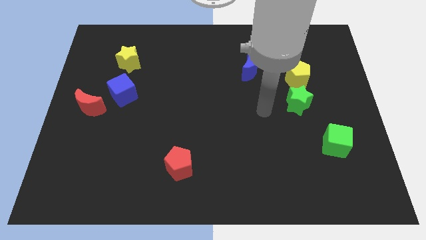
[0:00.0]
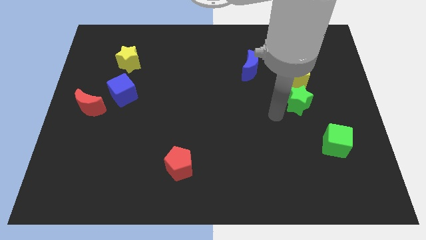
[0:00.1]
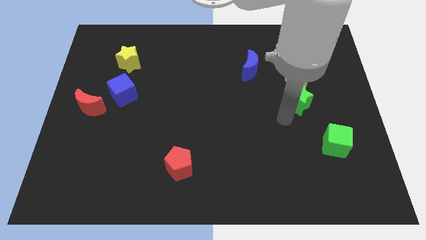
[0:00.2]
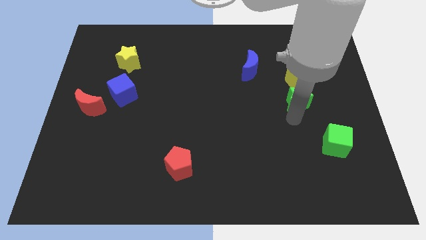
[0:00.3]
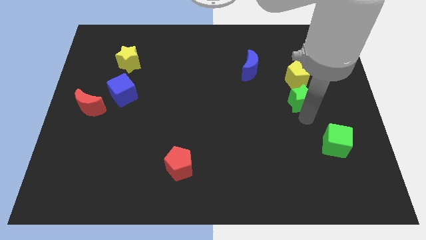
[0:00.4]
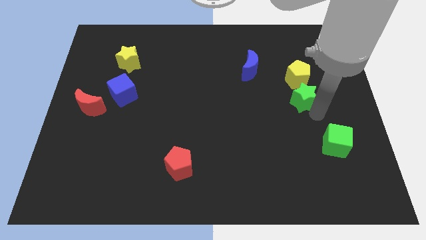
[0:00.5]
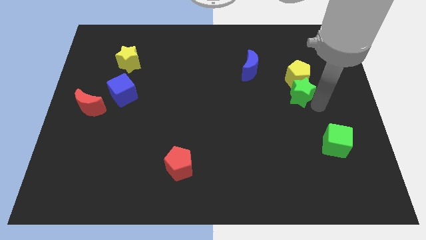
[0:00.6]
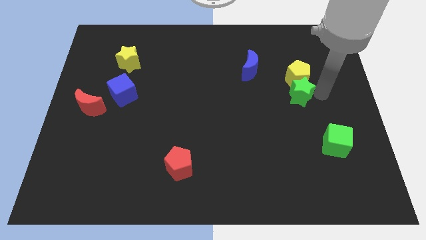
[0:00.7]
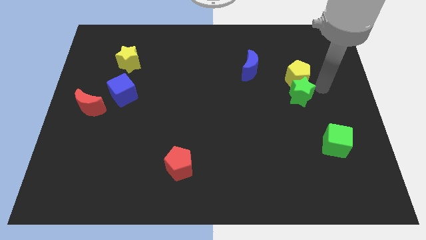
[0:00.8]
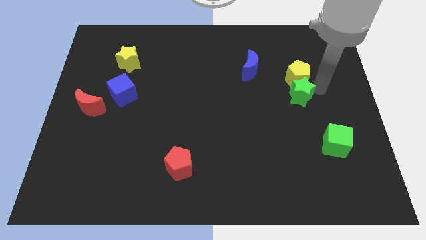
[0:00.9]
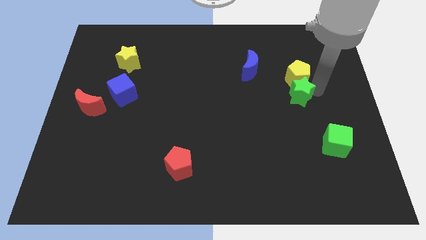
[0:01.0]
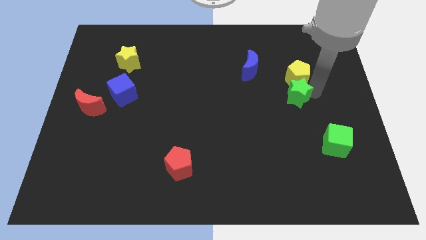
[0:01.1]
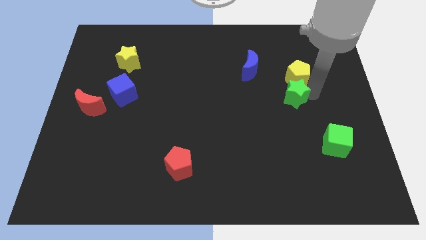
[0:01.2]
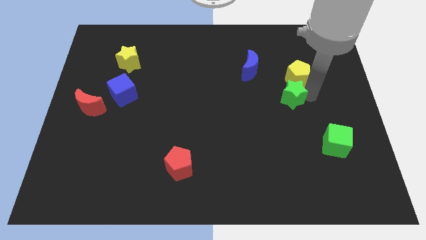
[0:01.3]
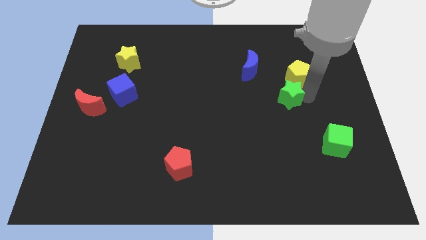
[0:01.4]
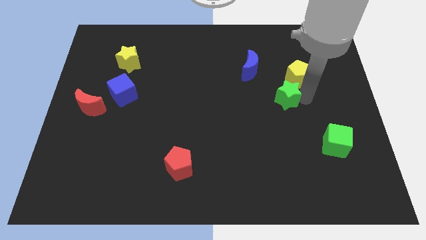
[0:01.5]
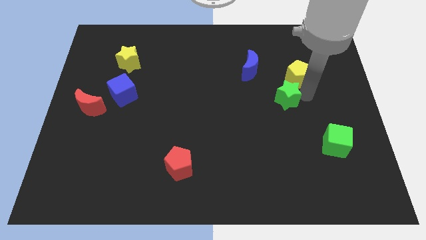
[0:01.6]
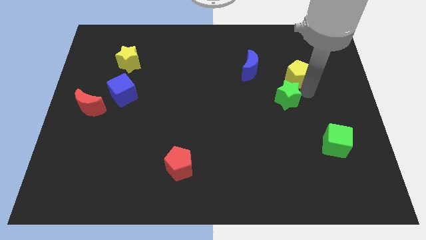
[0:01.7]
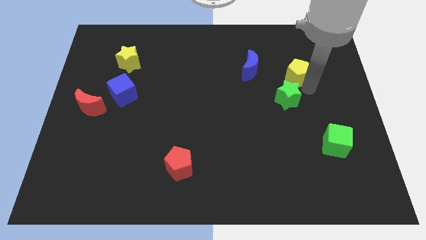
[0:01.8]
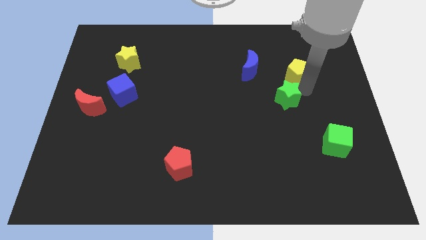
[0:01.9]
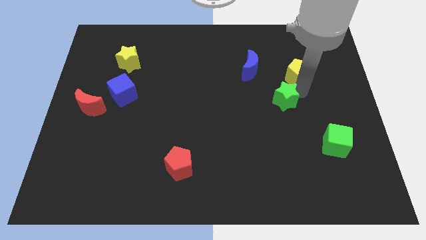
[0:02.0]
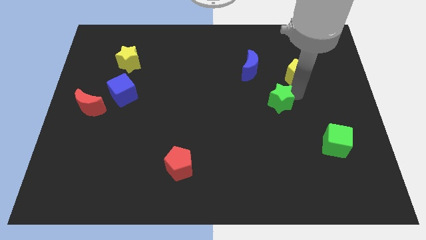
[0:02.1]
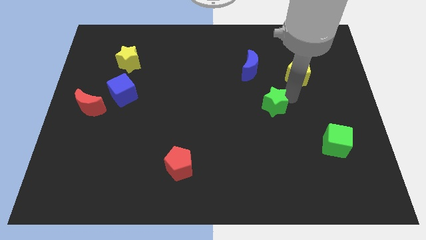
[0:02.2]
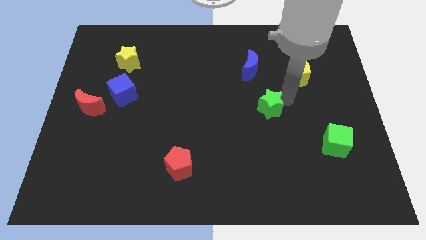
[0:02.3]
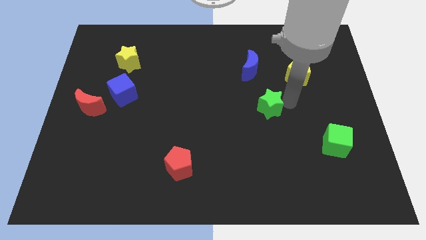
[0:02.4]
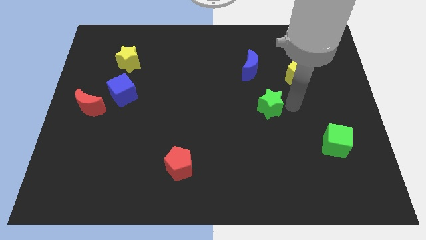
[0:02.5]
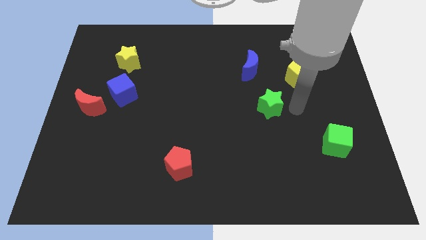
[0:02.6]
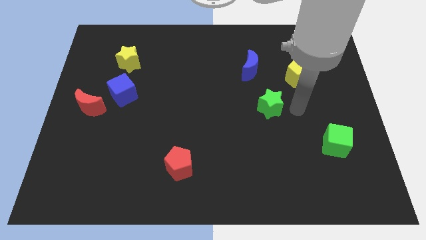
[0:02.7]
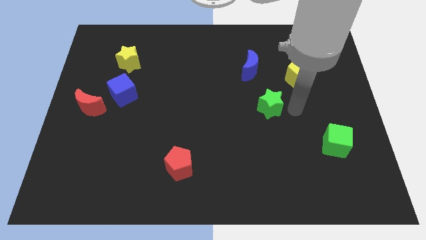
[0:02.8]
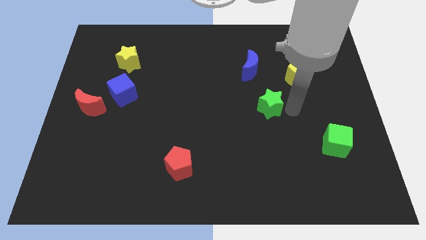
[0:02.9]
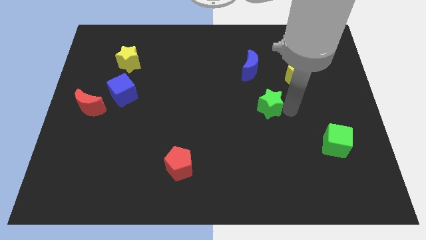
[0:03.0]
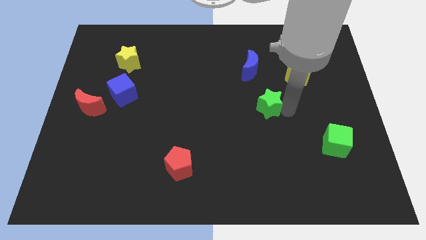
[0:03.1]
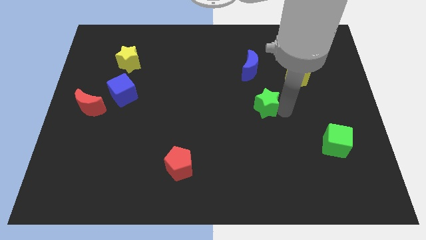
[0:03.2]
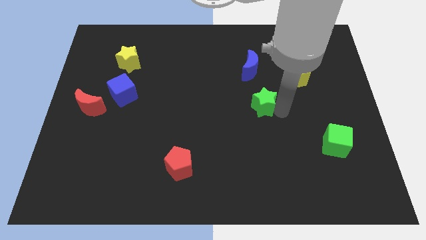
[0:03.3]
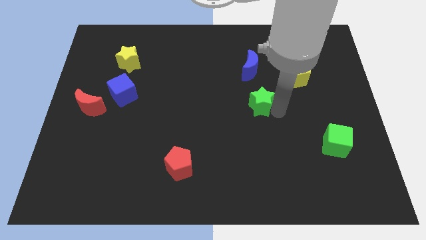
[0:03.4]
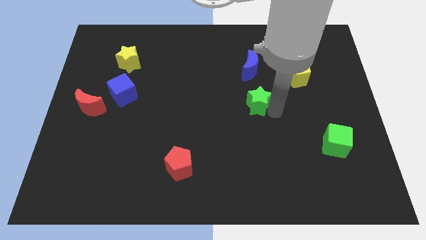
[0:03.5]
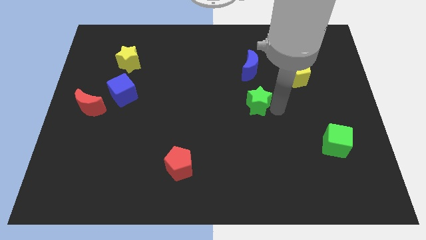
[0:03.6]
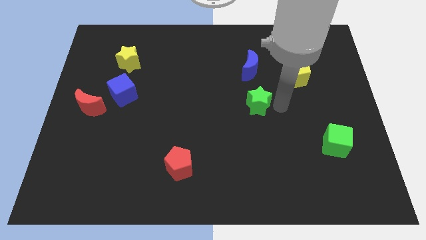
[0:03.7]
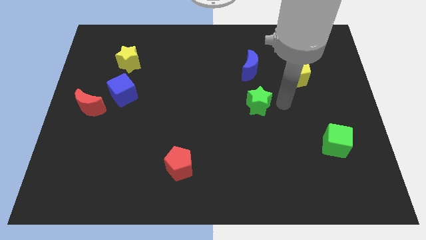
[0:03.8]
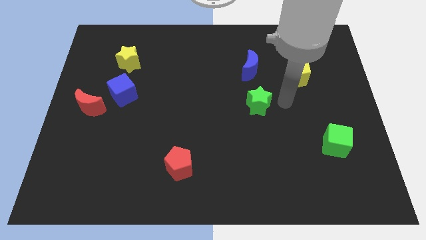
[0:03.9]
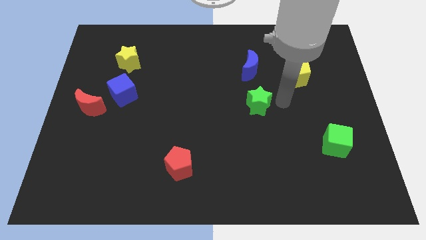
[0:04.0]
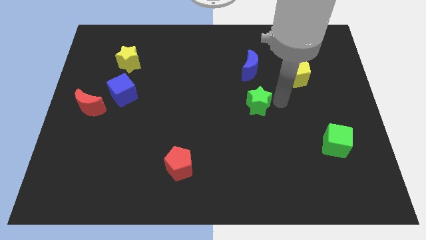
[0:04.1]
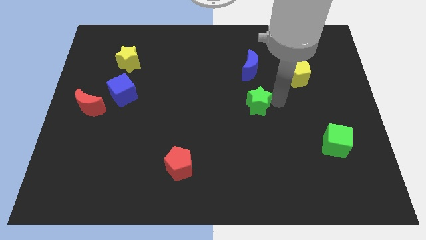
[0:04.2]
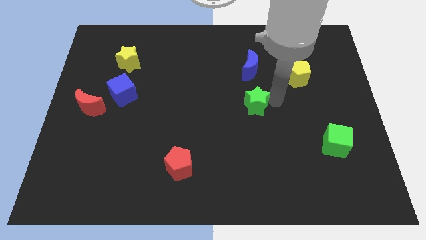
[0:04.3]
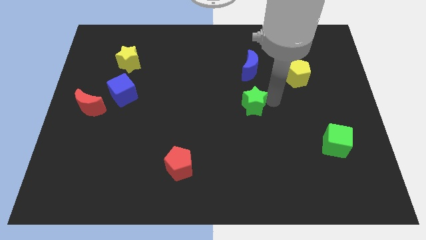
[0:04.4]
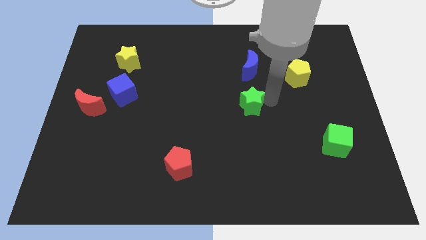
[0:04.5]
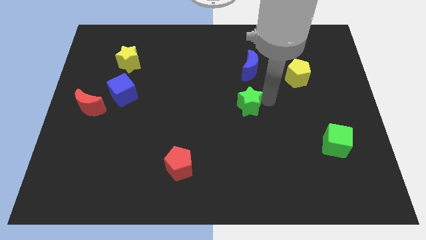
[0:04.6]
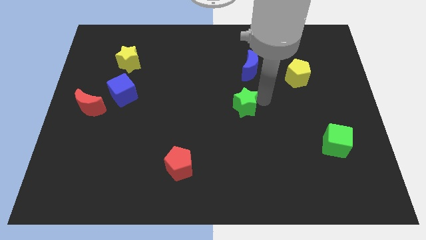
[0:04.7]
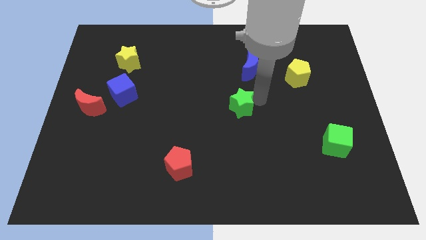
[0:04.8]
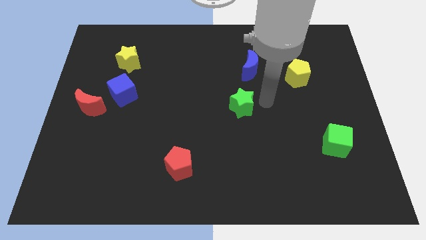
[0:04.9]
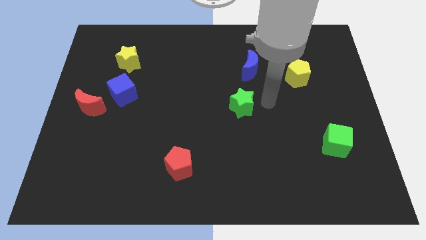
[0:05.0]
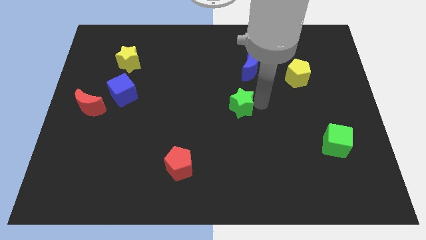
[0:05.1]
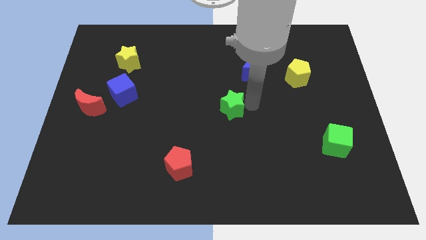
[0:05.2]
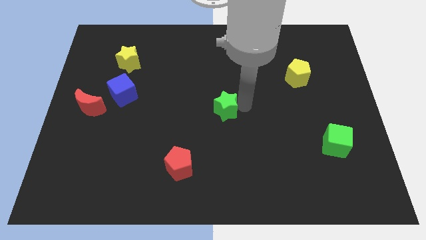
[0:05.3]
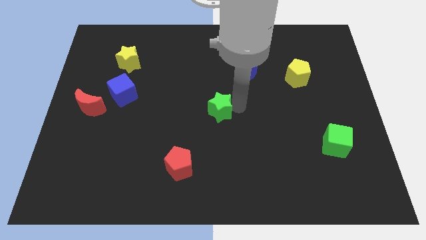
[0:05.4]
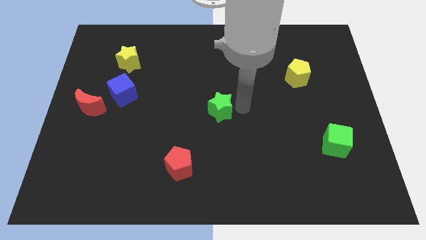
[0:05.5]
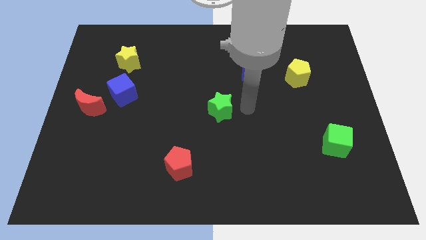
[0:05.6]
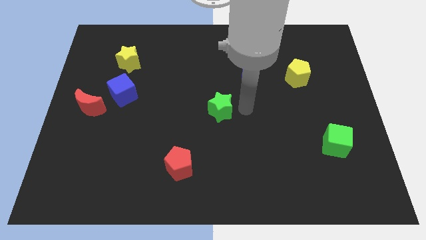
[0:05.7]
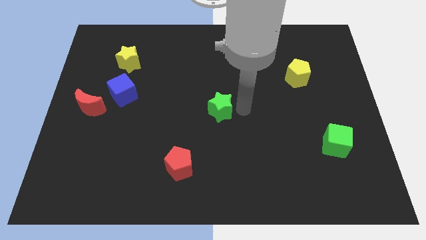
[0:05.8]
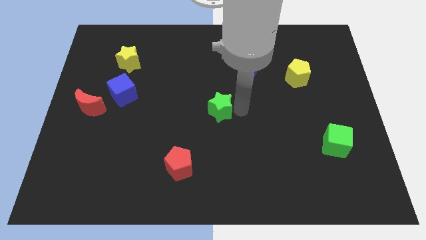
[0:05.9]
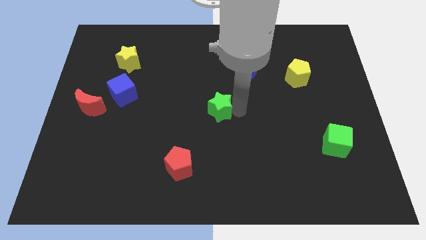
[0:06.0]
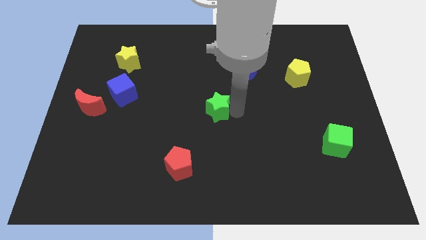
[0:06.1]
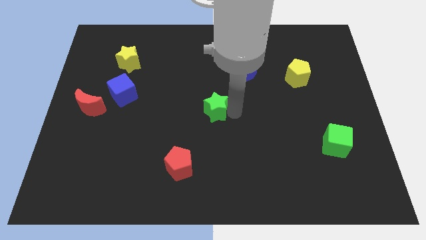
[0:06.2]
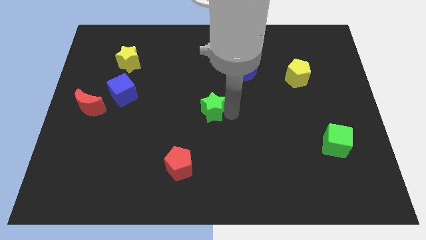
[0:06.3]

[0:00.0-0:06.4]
push the green star to the left

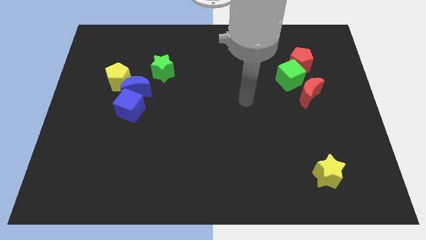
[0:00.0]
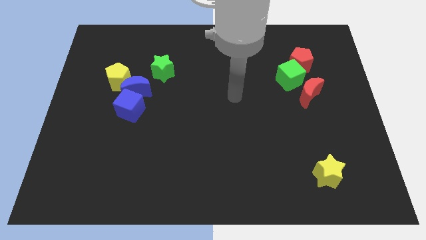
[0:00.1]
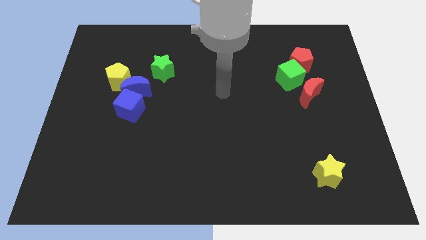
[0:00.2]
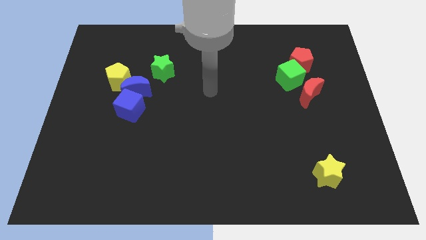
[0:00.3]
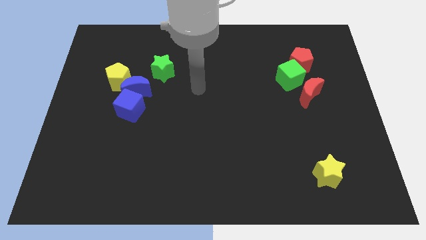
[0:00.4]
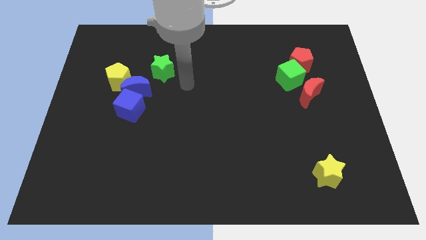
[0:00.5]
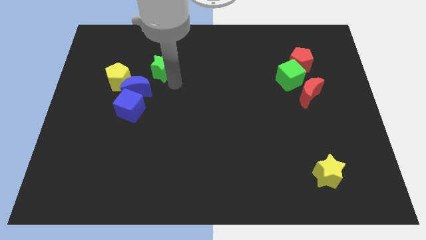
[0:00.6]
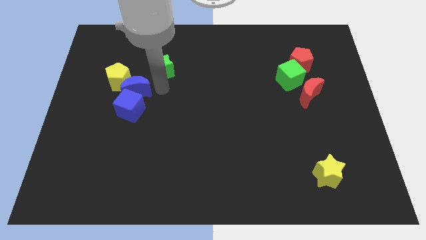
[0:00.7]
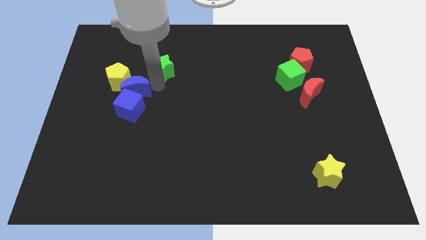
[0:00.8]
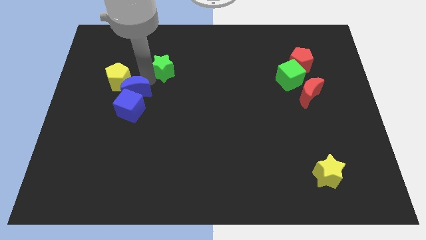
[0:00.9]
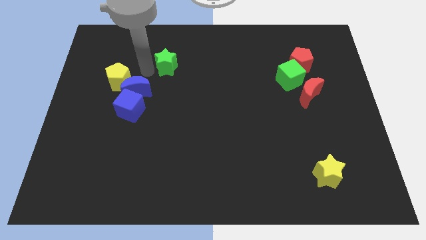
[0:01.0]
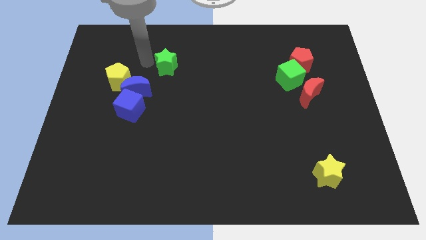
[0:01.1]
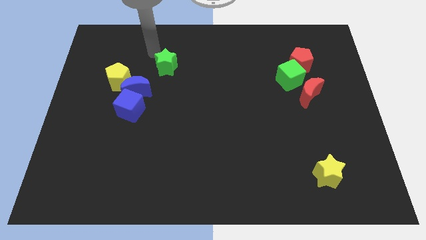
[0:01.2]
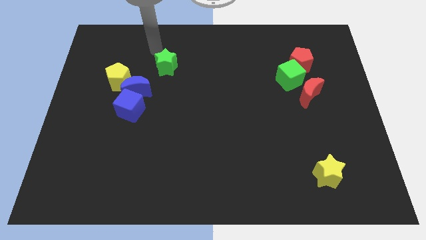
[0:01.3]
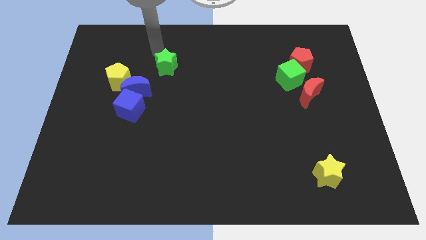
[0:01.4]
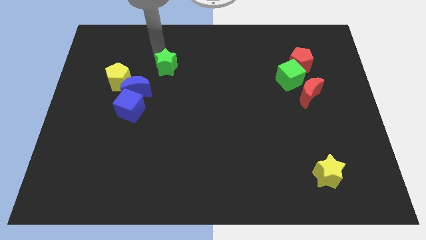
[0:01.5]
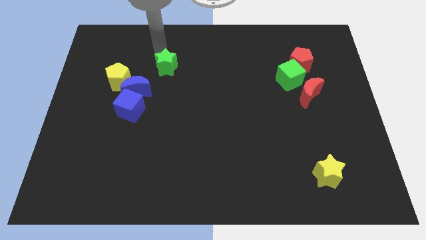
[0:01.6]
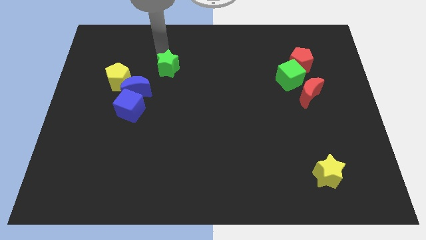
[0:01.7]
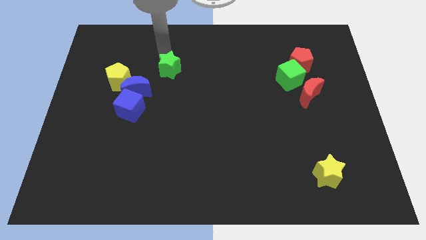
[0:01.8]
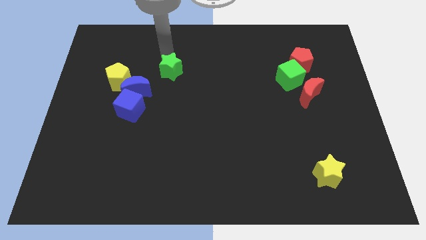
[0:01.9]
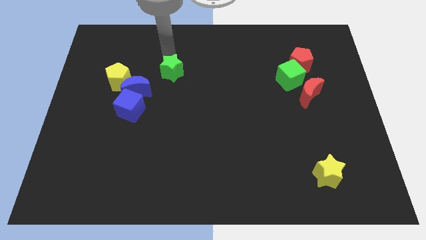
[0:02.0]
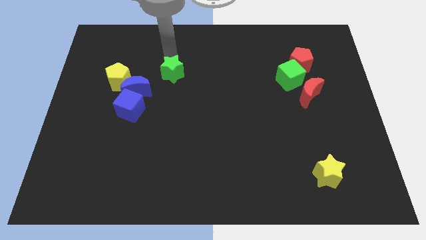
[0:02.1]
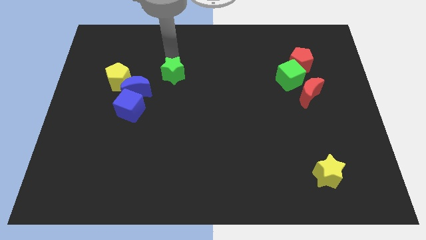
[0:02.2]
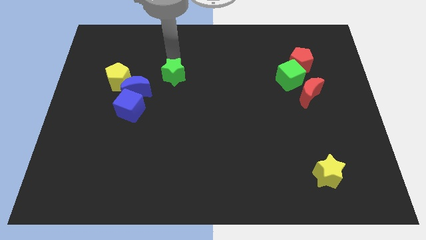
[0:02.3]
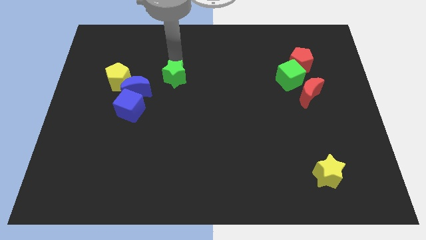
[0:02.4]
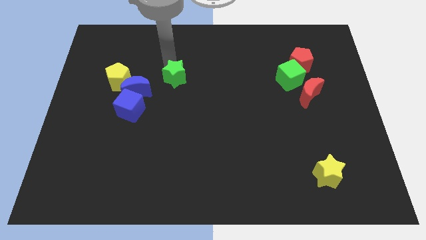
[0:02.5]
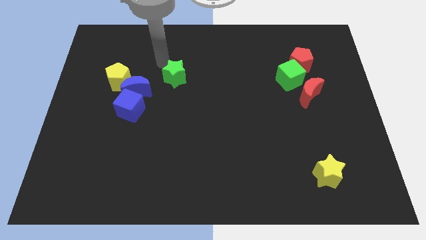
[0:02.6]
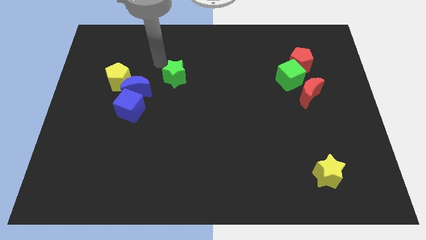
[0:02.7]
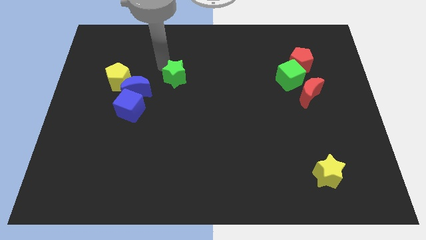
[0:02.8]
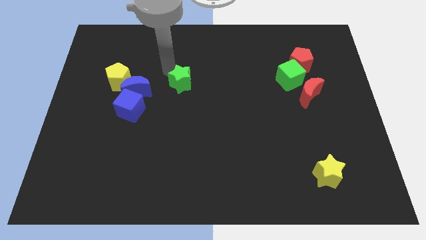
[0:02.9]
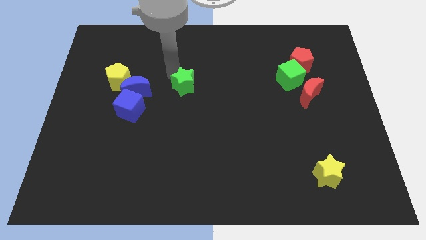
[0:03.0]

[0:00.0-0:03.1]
slightly push the green star diagonally down and right
